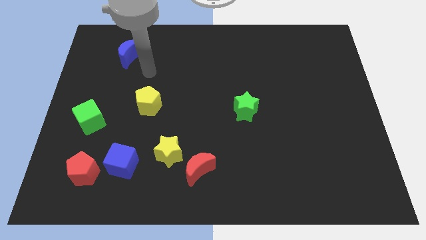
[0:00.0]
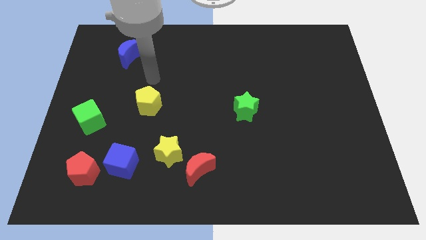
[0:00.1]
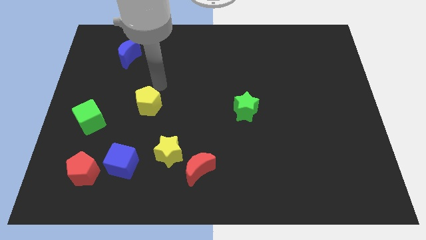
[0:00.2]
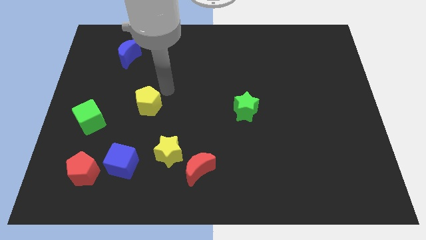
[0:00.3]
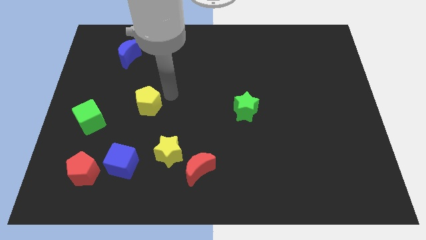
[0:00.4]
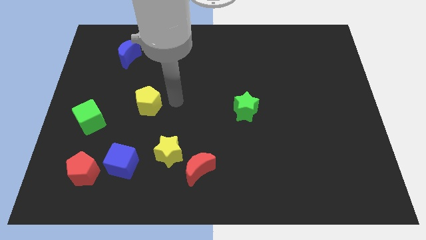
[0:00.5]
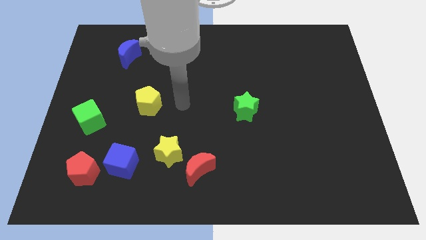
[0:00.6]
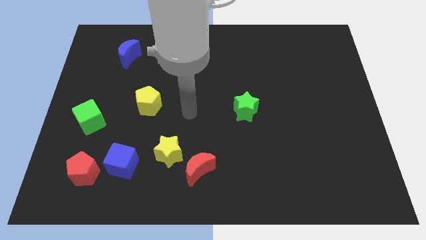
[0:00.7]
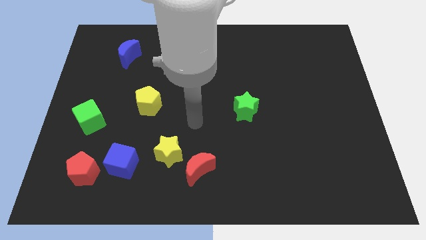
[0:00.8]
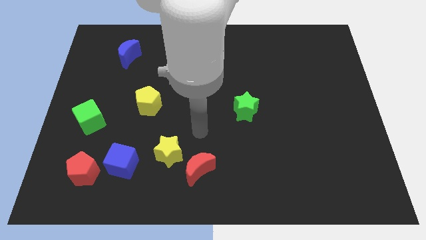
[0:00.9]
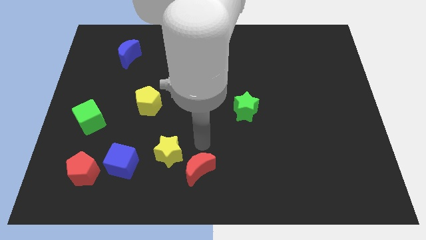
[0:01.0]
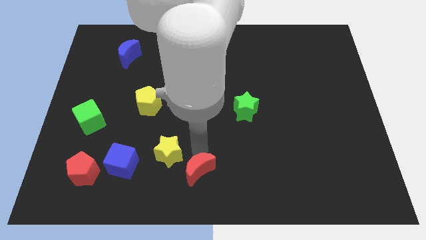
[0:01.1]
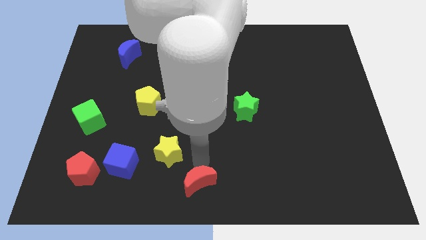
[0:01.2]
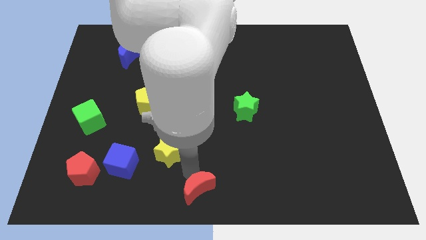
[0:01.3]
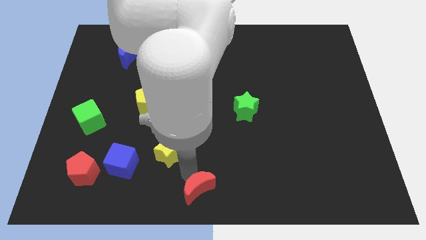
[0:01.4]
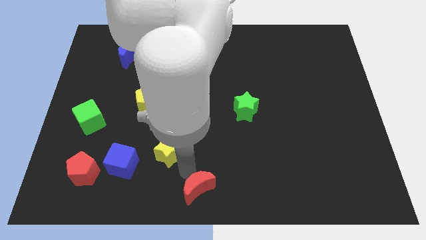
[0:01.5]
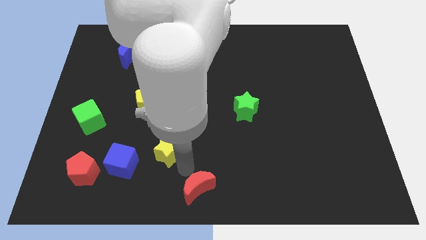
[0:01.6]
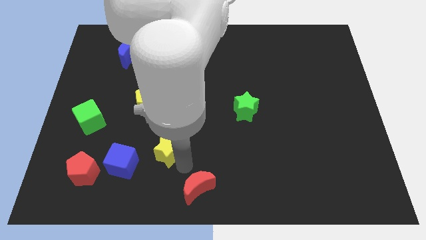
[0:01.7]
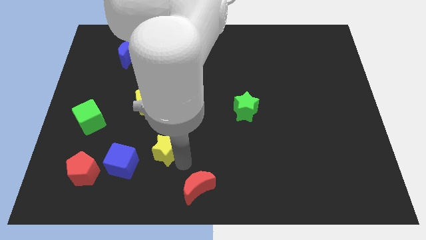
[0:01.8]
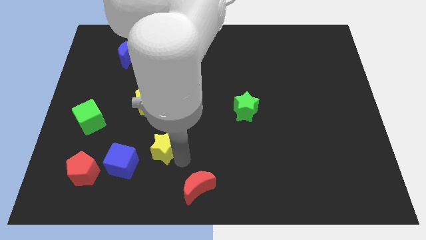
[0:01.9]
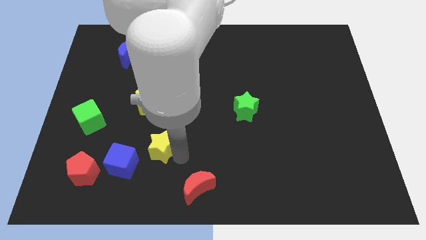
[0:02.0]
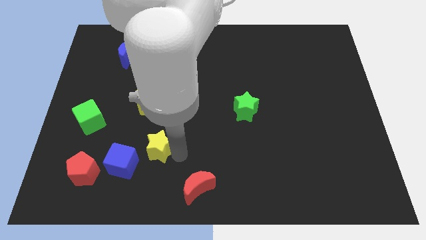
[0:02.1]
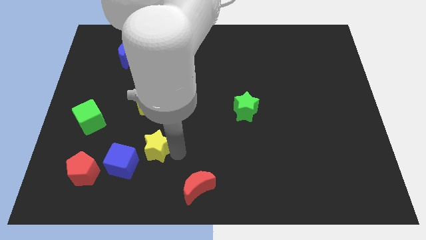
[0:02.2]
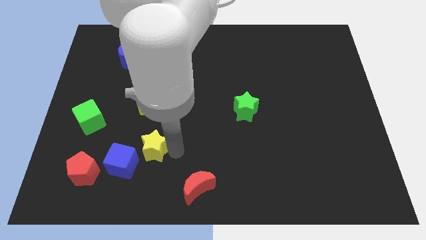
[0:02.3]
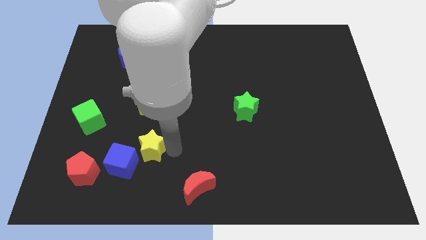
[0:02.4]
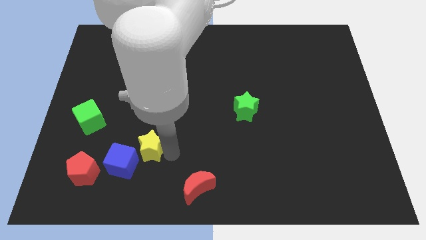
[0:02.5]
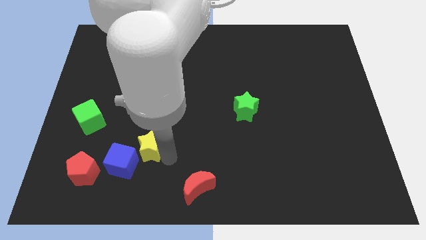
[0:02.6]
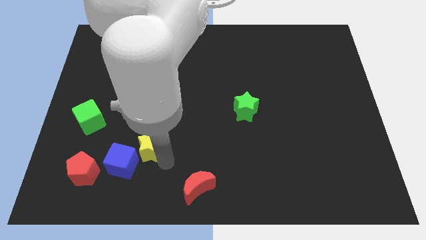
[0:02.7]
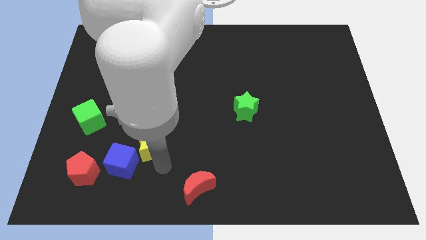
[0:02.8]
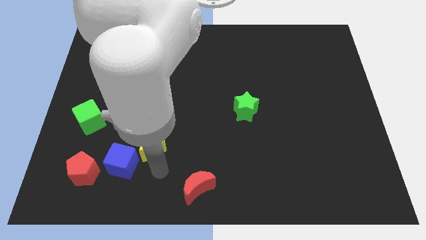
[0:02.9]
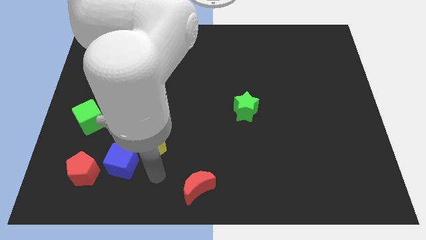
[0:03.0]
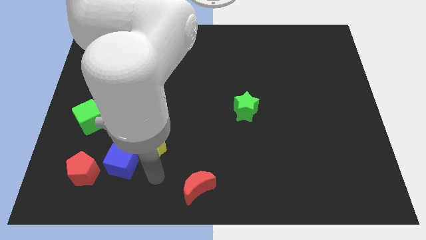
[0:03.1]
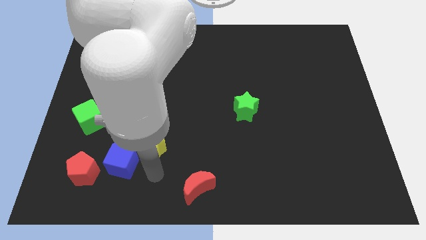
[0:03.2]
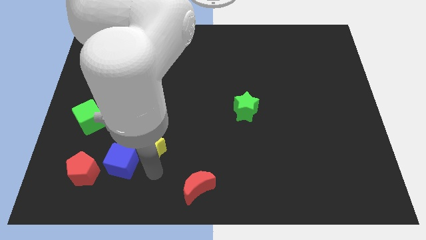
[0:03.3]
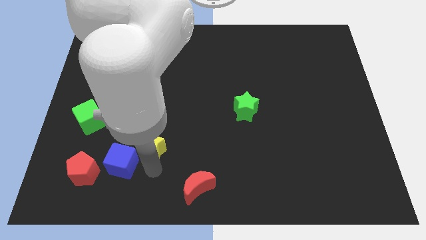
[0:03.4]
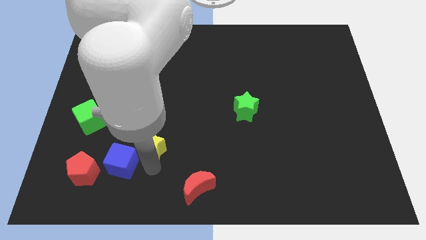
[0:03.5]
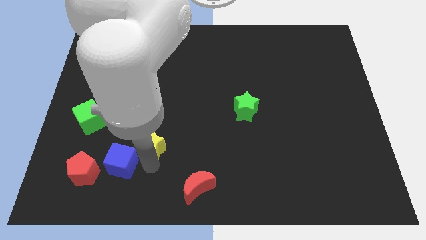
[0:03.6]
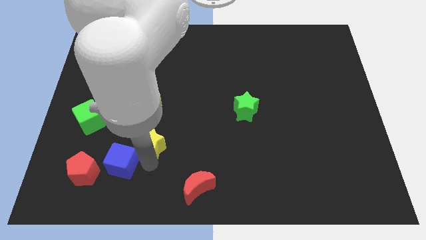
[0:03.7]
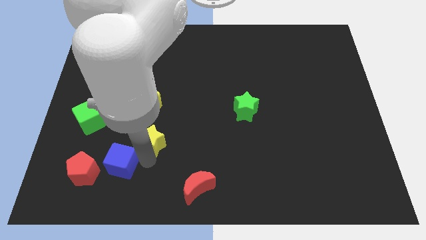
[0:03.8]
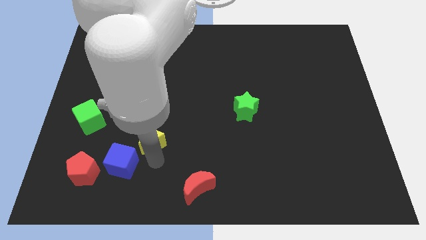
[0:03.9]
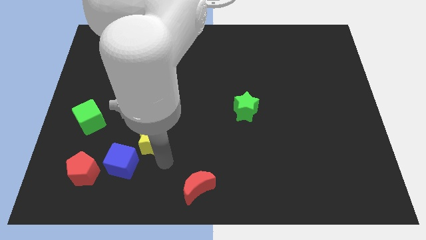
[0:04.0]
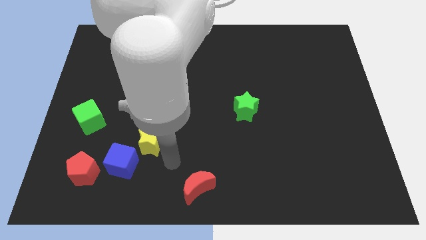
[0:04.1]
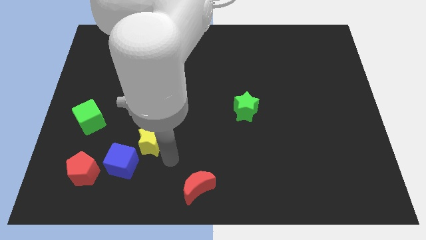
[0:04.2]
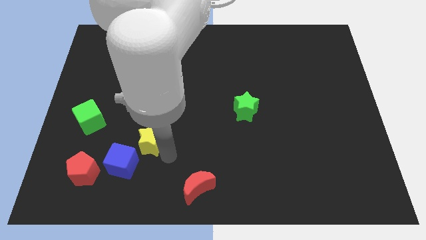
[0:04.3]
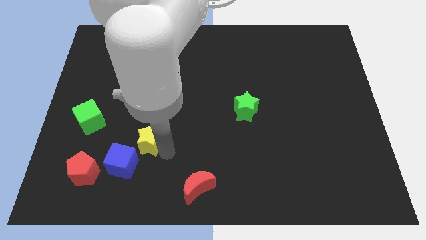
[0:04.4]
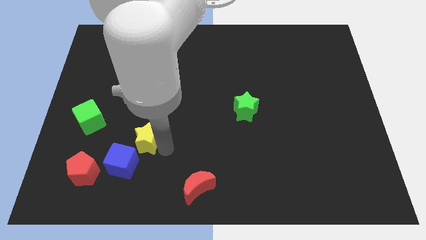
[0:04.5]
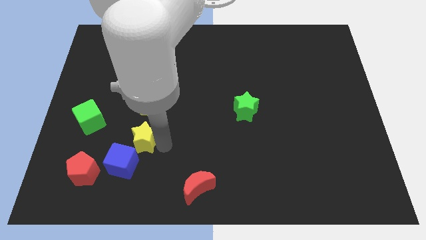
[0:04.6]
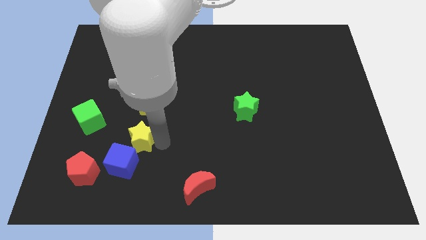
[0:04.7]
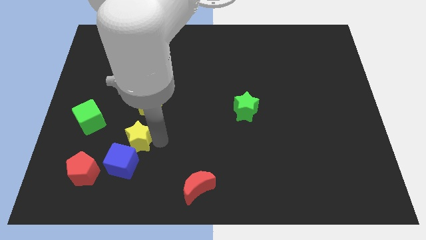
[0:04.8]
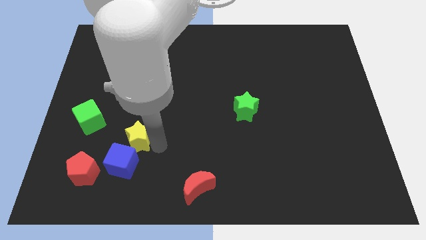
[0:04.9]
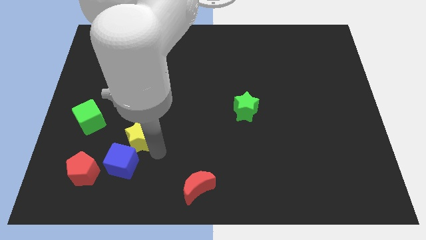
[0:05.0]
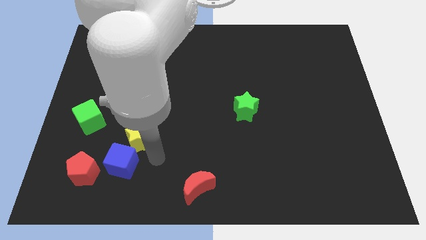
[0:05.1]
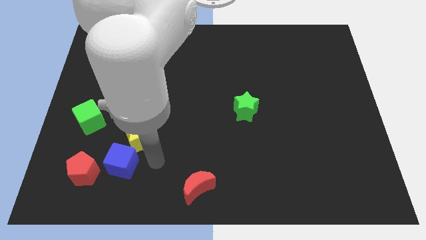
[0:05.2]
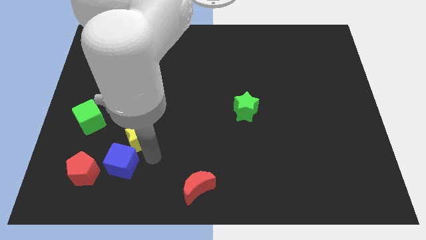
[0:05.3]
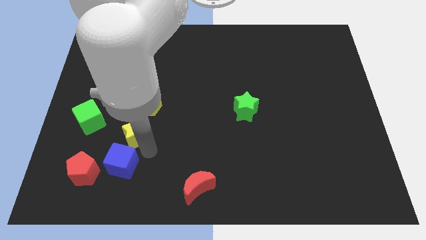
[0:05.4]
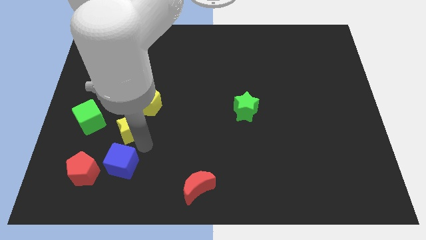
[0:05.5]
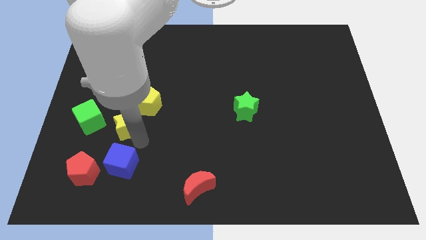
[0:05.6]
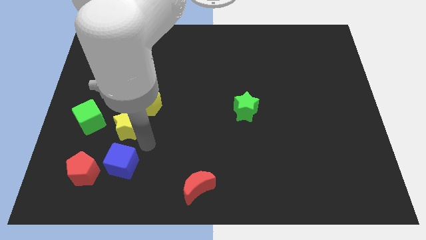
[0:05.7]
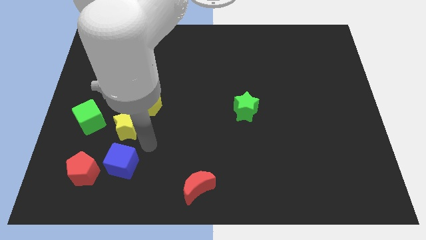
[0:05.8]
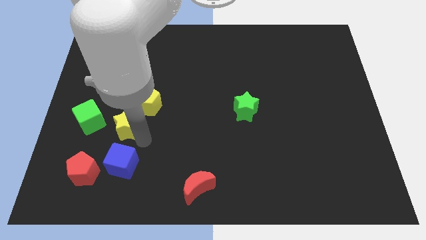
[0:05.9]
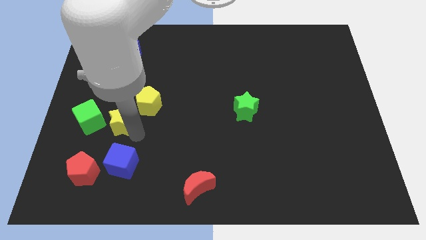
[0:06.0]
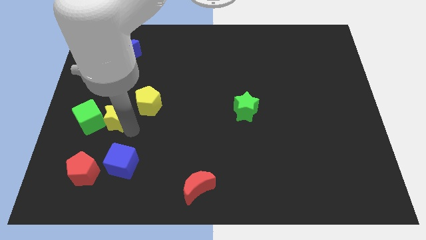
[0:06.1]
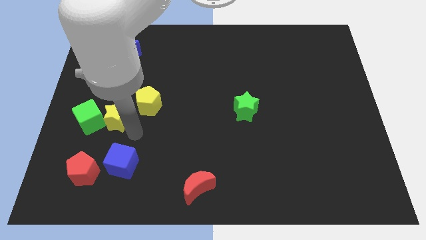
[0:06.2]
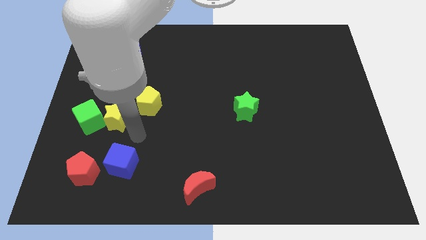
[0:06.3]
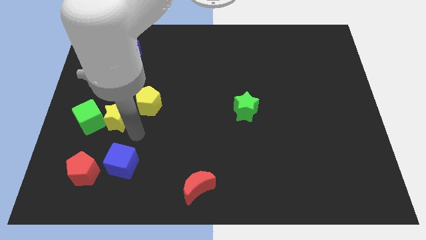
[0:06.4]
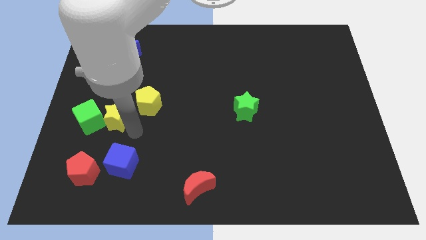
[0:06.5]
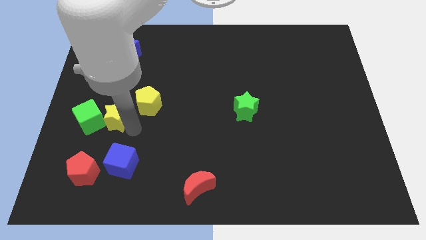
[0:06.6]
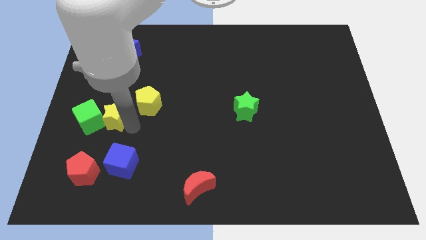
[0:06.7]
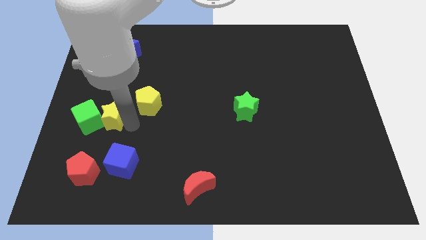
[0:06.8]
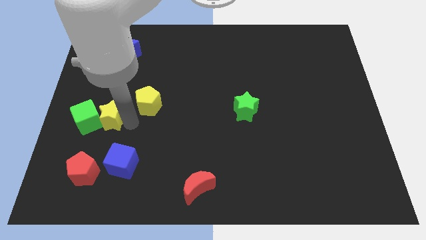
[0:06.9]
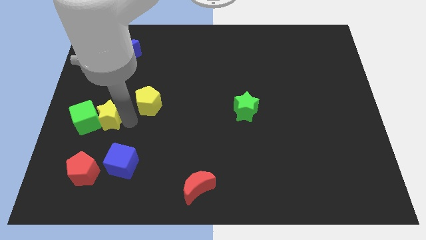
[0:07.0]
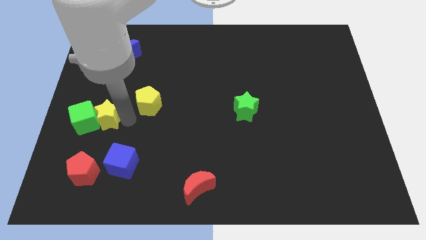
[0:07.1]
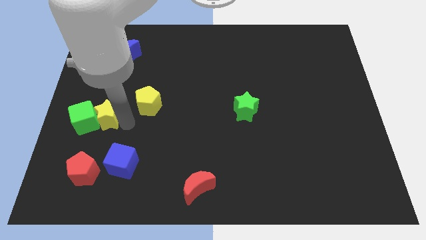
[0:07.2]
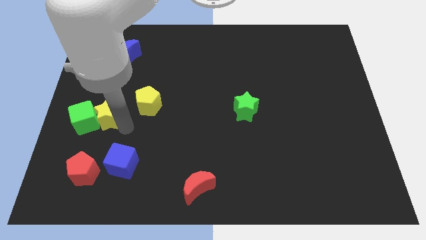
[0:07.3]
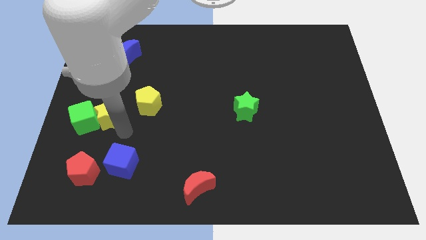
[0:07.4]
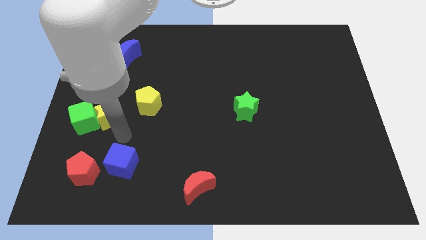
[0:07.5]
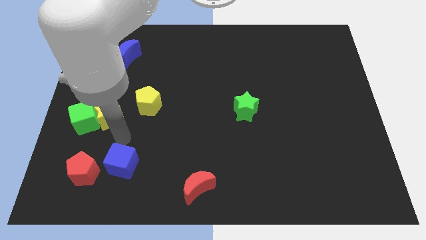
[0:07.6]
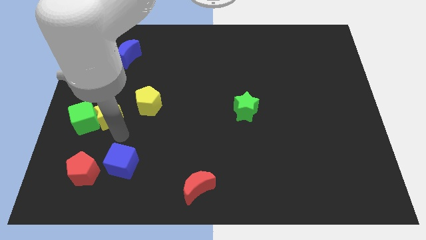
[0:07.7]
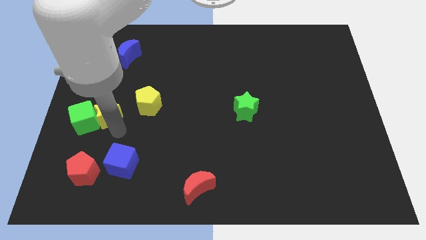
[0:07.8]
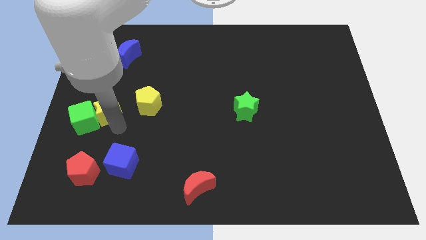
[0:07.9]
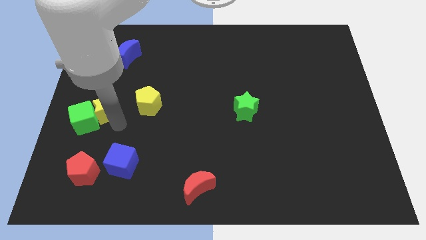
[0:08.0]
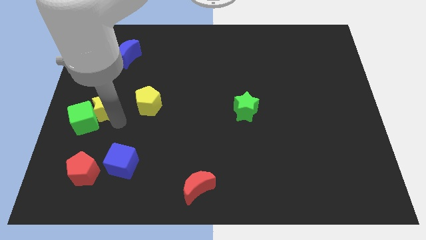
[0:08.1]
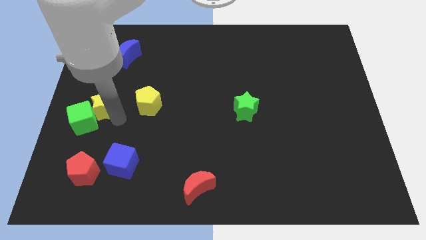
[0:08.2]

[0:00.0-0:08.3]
move the yellow star to the left side of the board
